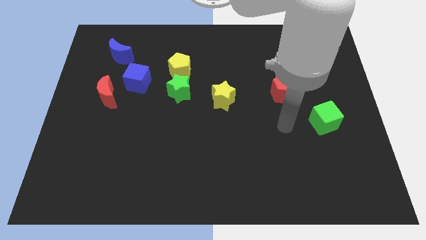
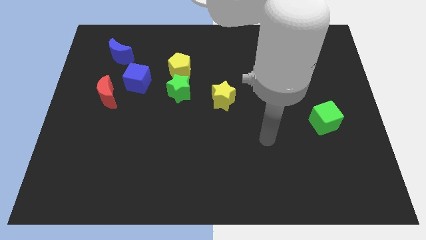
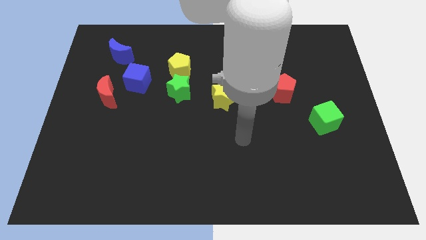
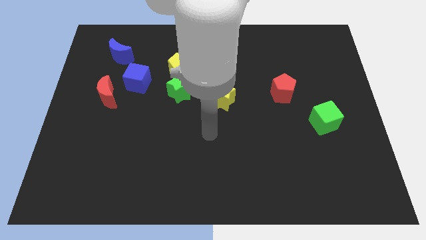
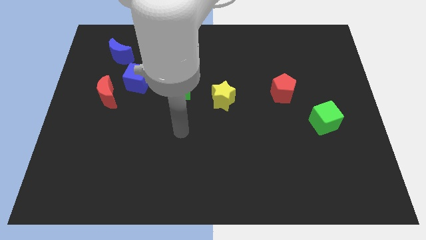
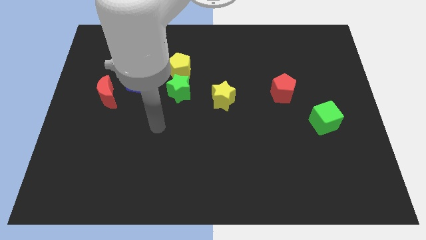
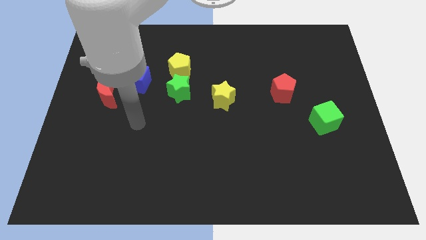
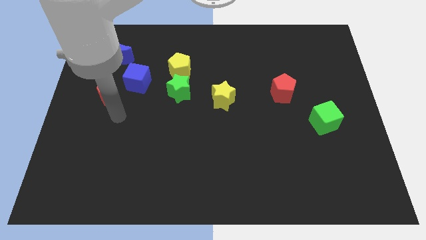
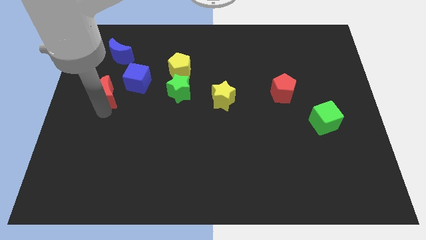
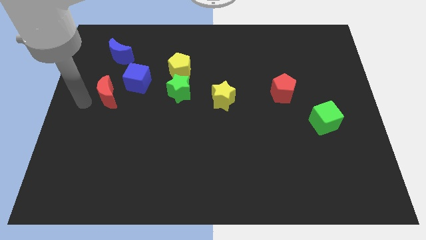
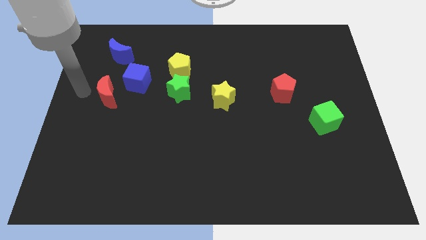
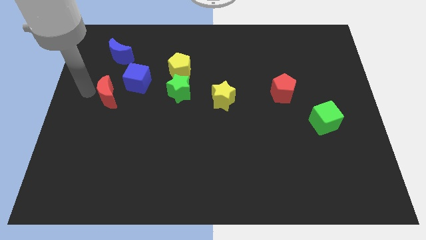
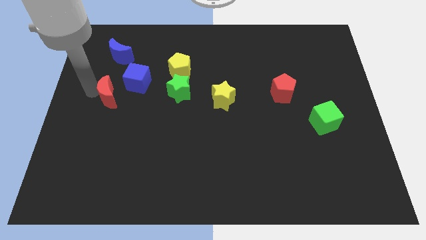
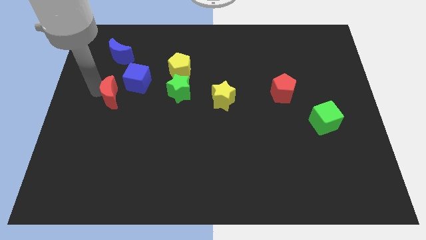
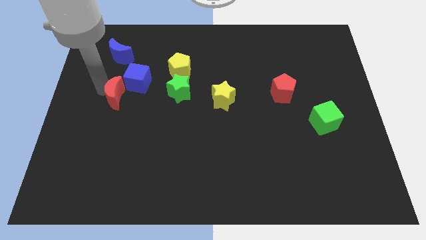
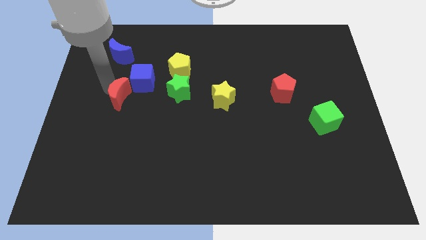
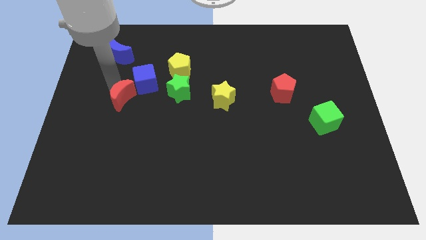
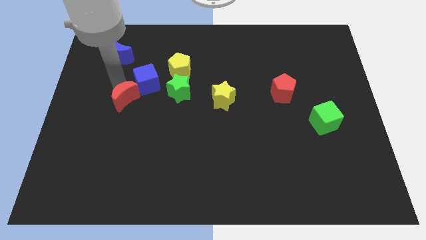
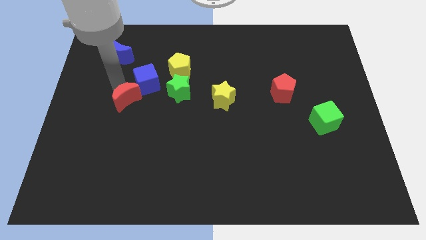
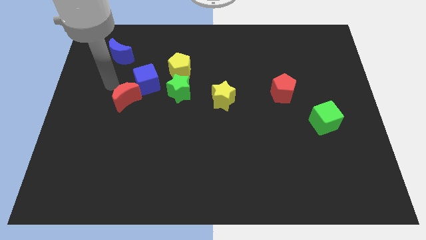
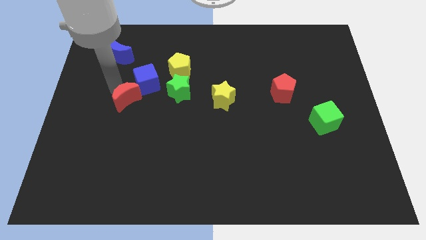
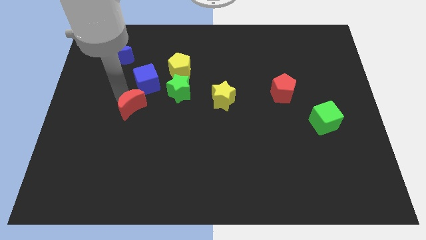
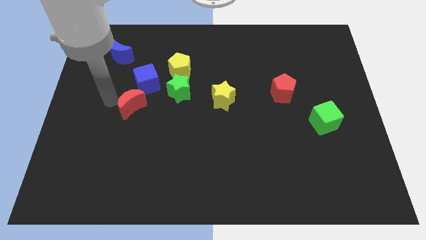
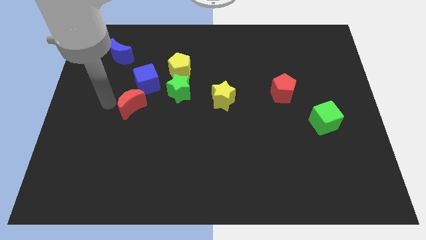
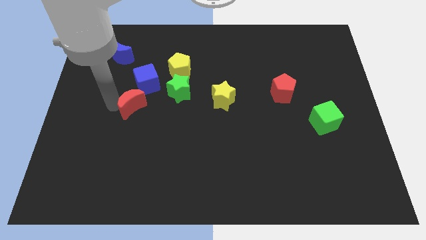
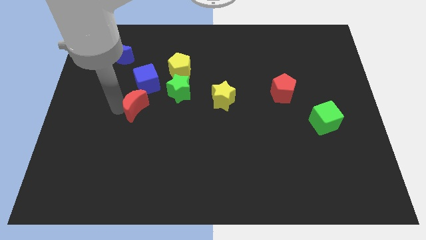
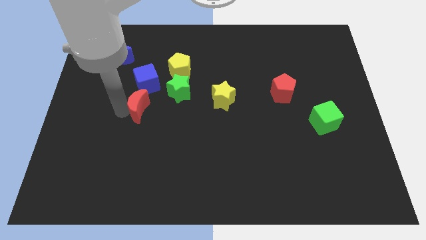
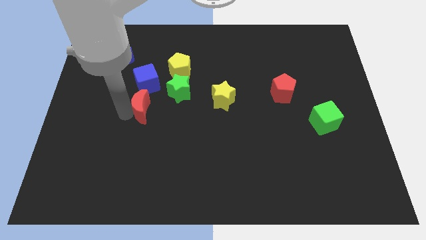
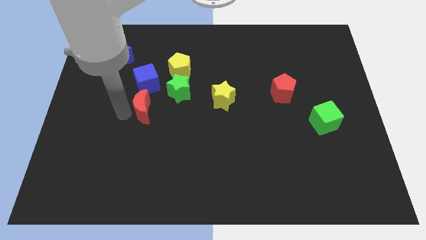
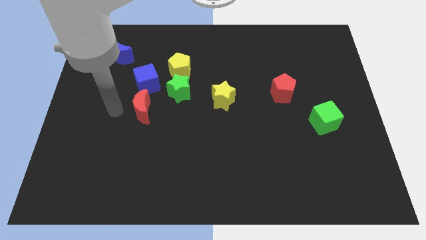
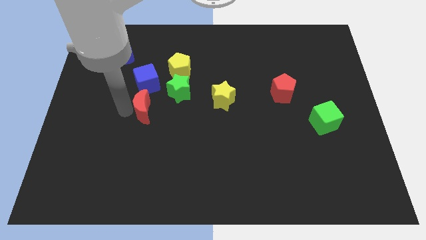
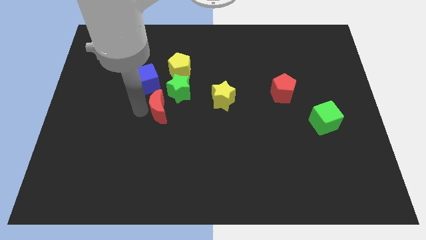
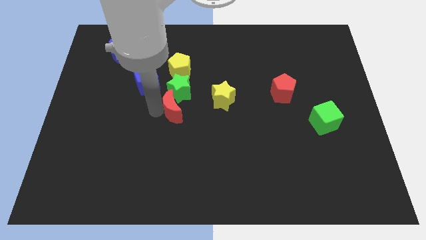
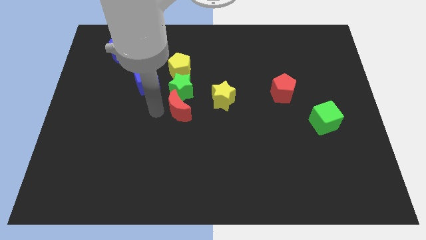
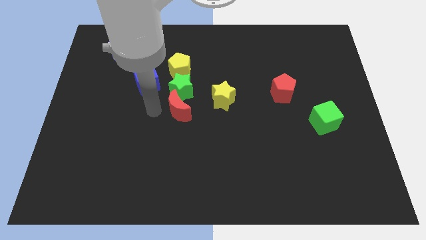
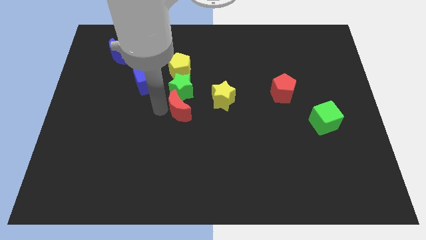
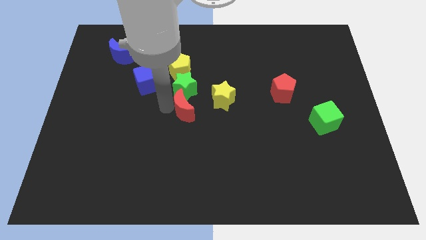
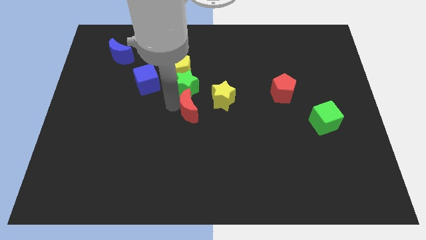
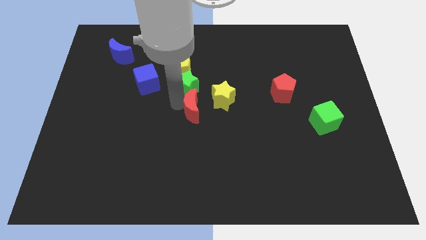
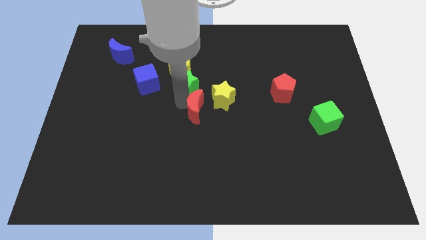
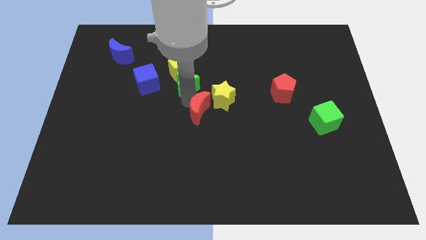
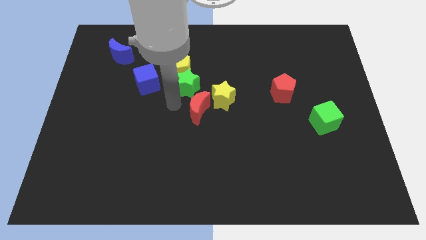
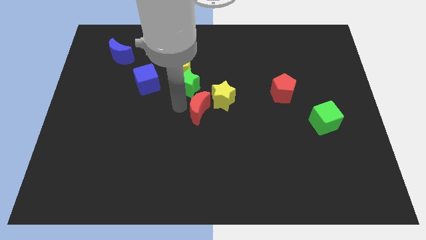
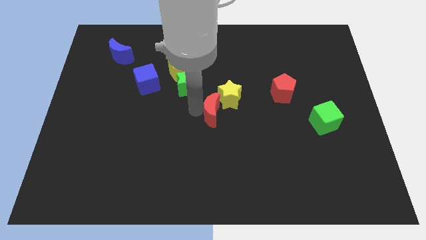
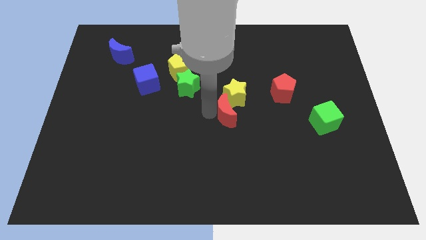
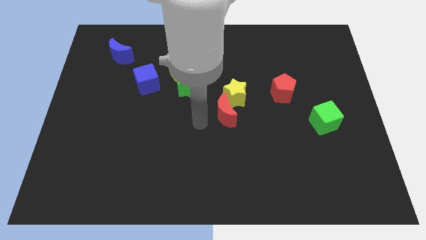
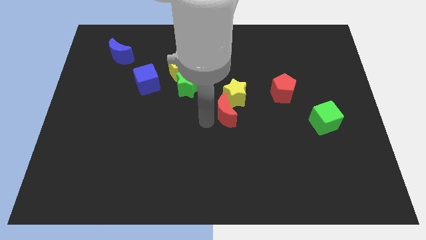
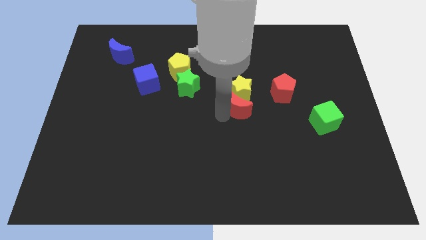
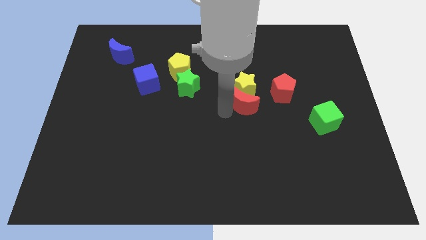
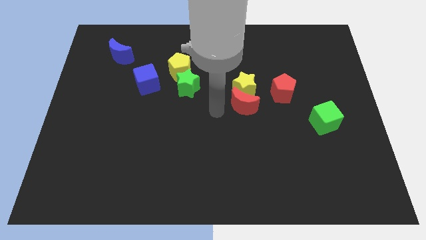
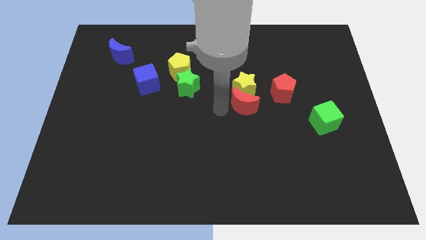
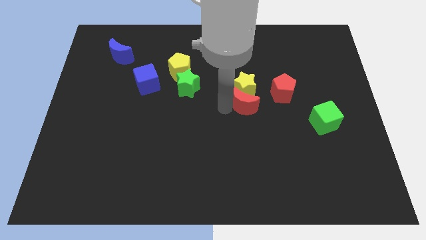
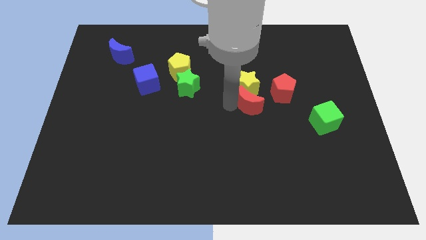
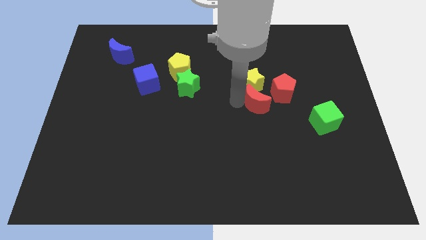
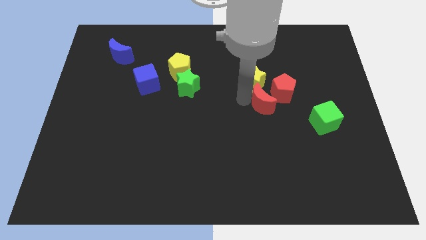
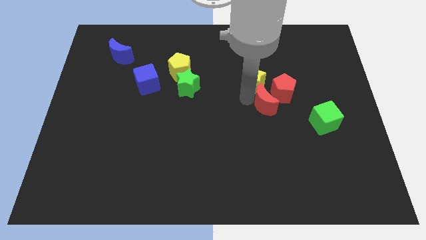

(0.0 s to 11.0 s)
put the red moon towards the red pentagon

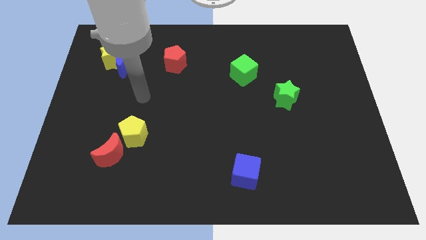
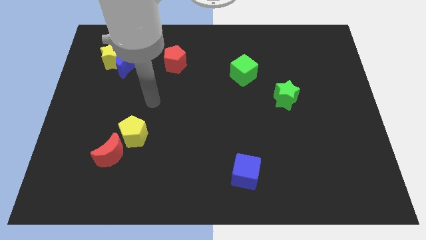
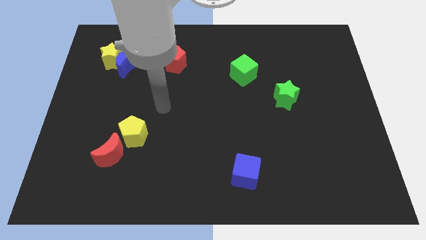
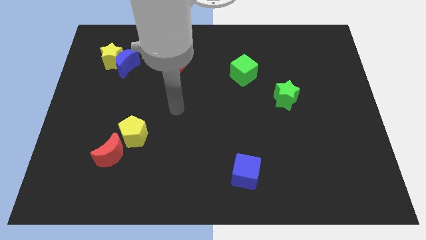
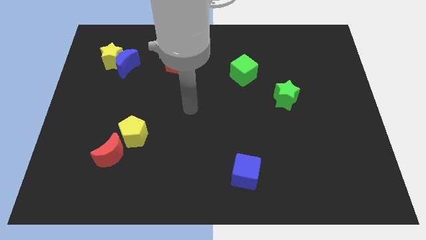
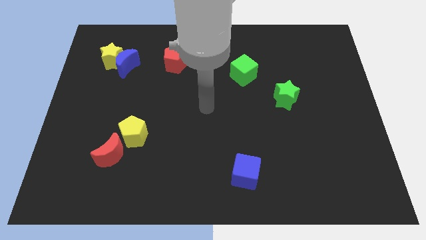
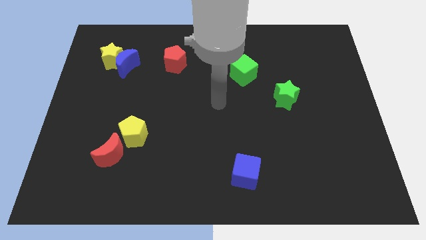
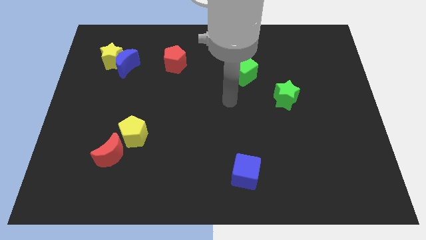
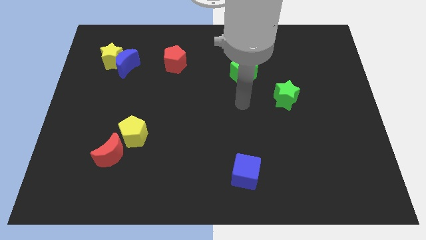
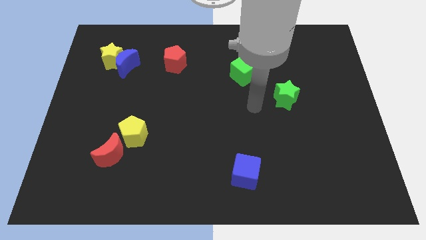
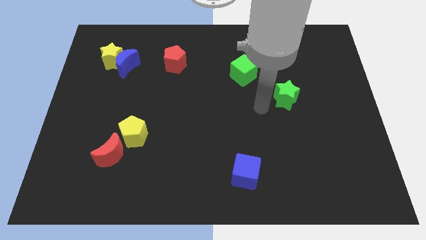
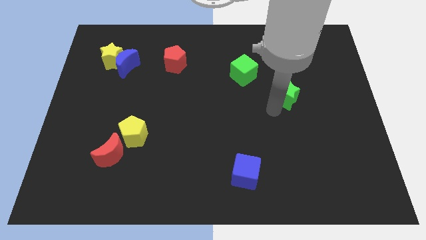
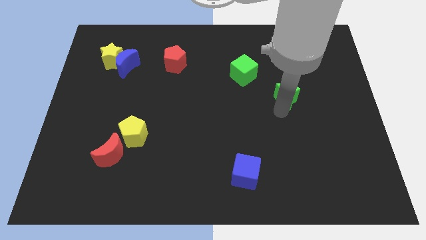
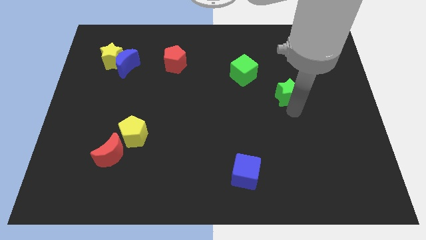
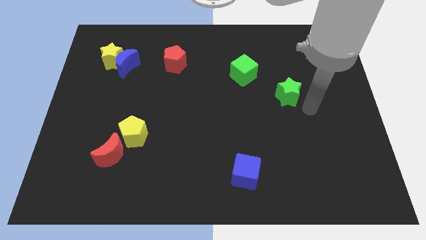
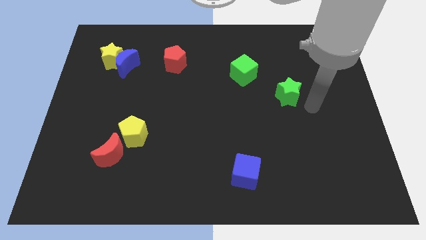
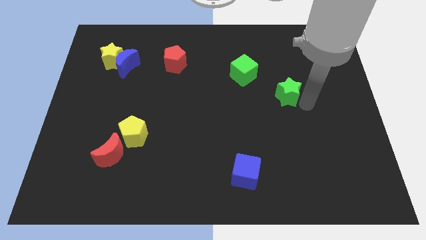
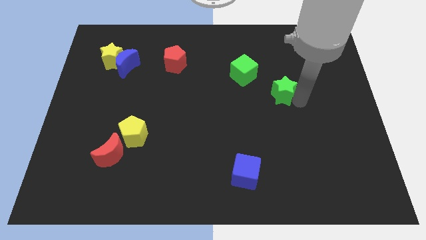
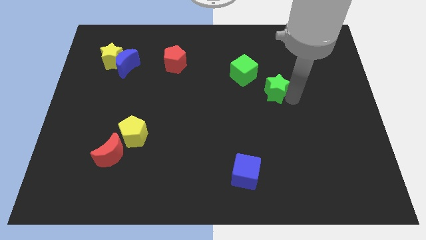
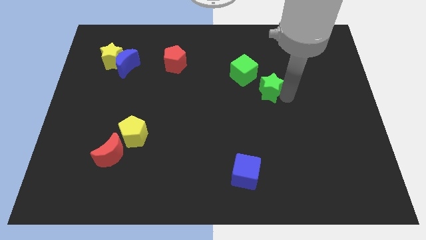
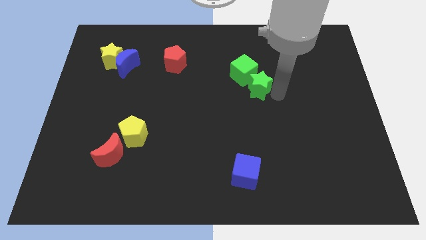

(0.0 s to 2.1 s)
push the green star towards the green cube
